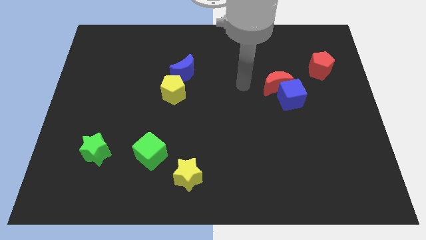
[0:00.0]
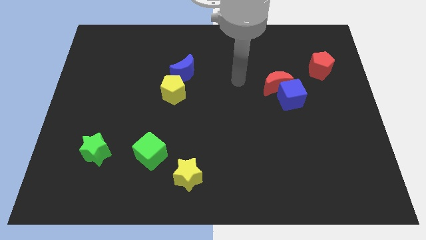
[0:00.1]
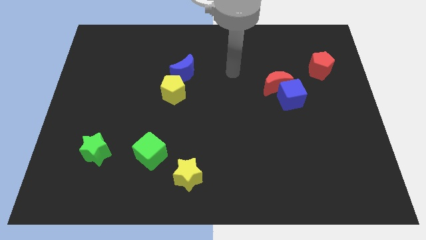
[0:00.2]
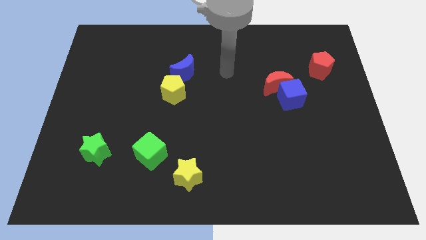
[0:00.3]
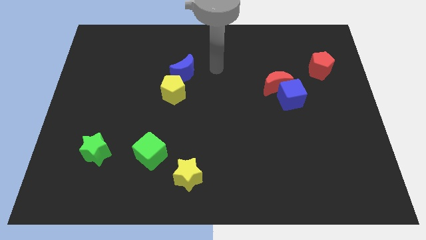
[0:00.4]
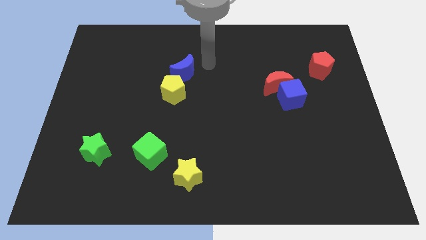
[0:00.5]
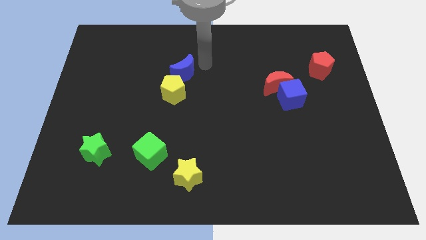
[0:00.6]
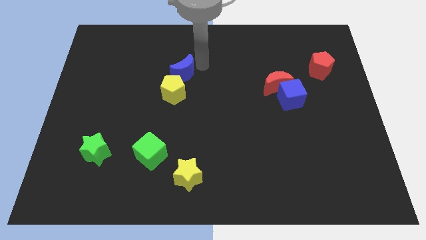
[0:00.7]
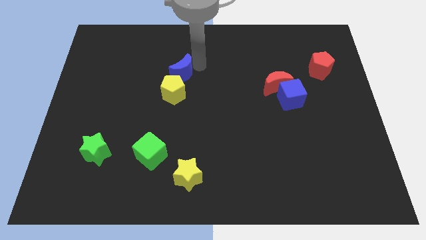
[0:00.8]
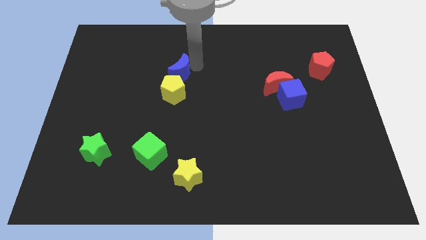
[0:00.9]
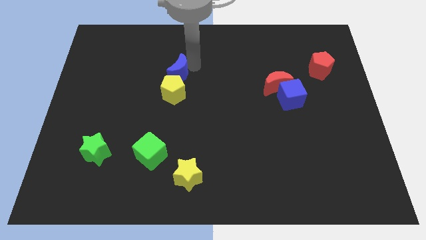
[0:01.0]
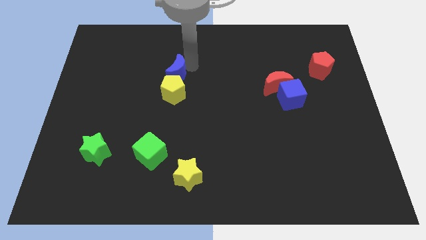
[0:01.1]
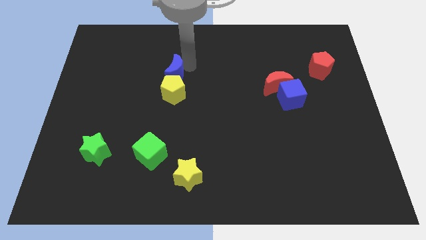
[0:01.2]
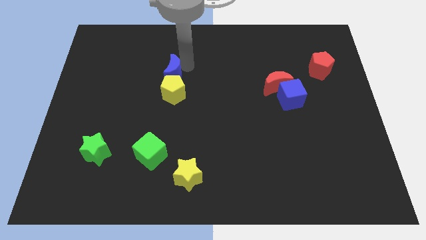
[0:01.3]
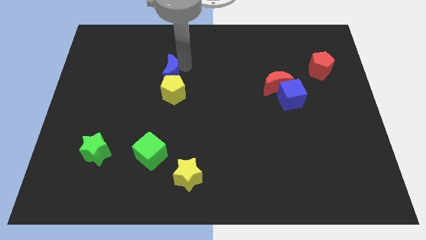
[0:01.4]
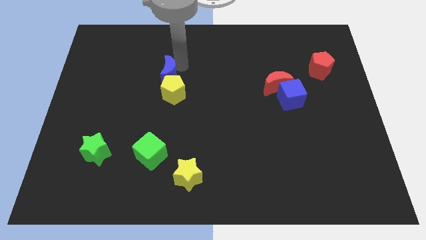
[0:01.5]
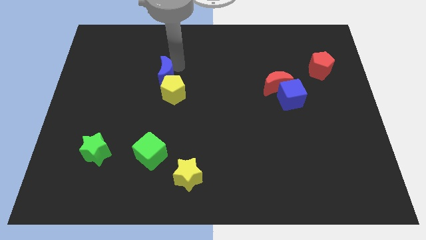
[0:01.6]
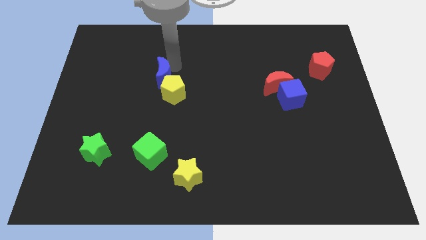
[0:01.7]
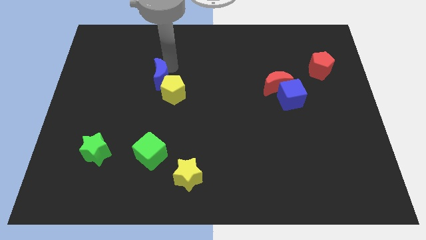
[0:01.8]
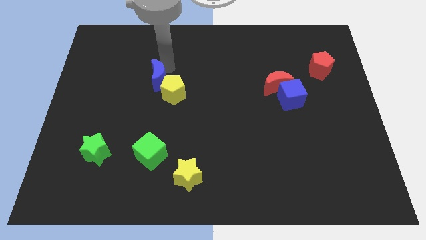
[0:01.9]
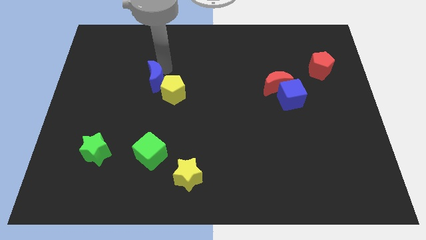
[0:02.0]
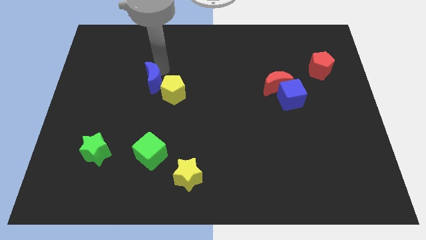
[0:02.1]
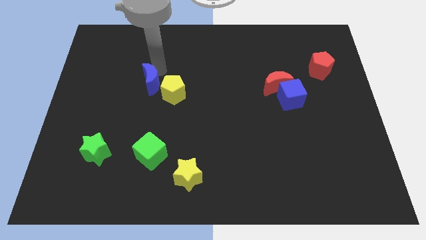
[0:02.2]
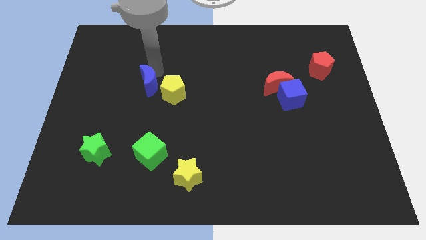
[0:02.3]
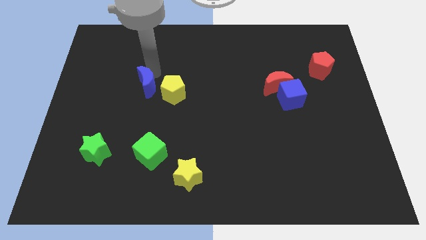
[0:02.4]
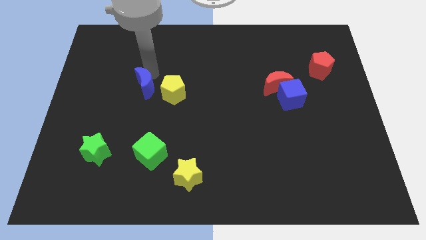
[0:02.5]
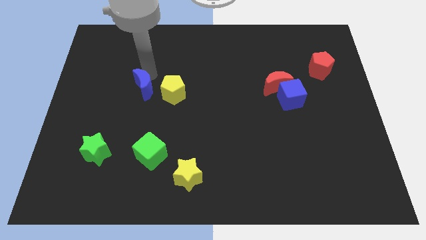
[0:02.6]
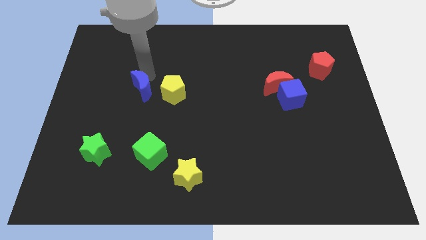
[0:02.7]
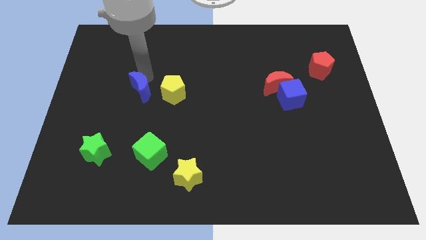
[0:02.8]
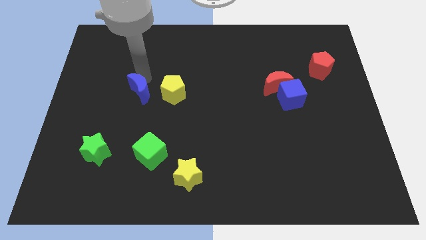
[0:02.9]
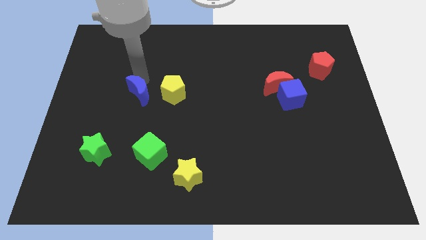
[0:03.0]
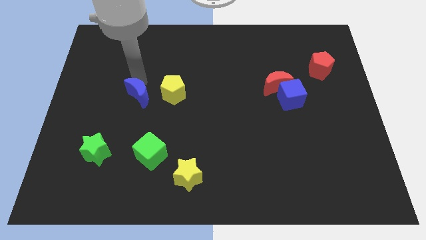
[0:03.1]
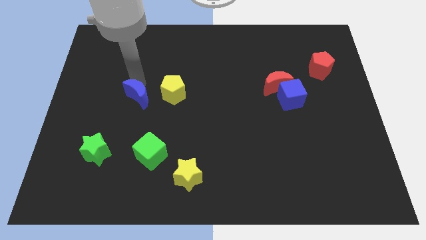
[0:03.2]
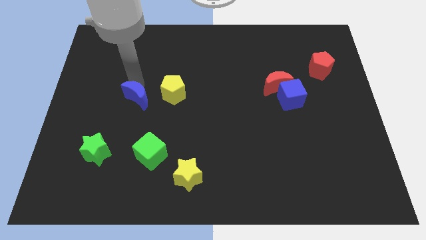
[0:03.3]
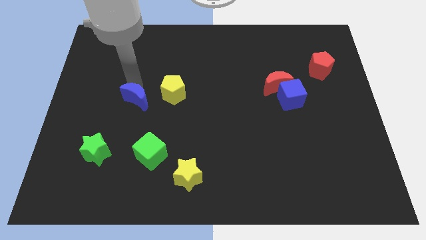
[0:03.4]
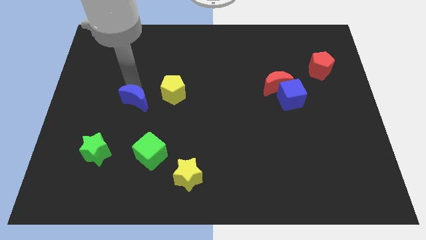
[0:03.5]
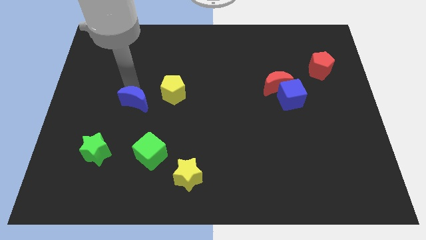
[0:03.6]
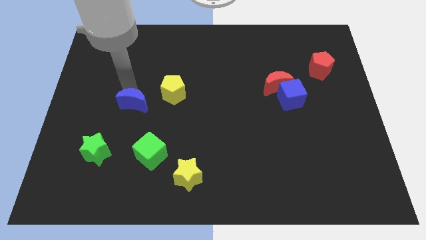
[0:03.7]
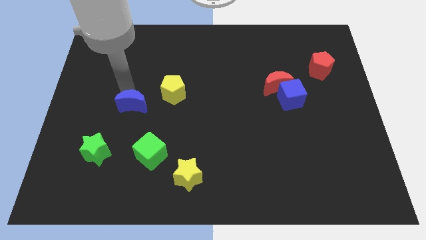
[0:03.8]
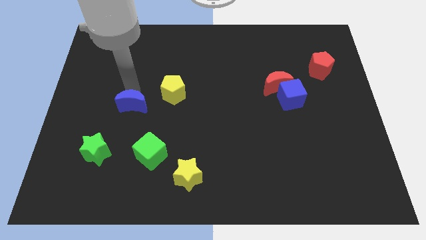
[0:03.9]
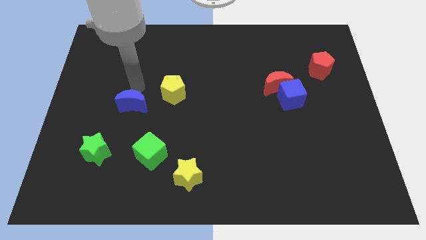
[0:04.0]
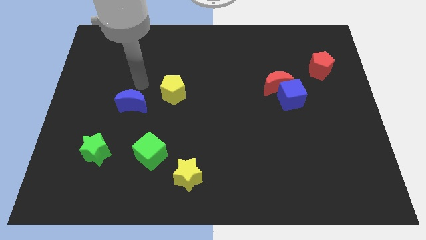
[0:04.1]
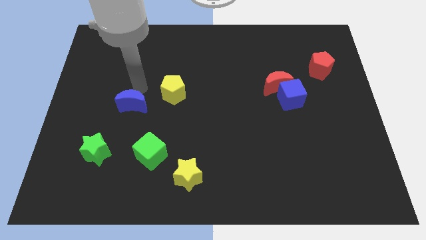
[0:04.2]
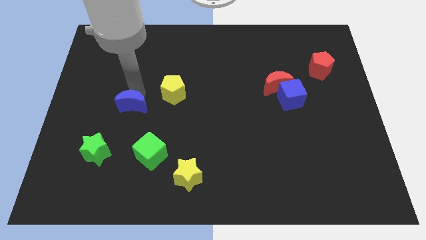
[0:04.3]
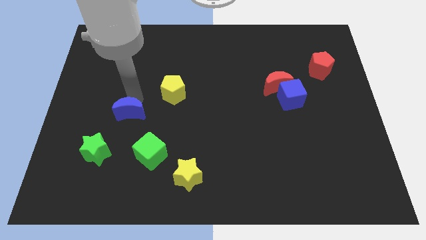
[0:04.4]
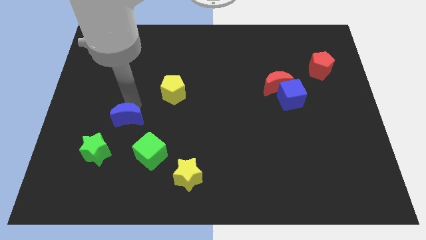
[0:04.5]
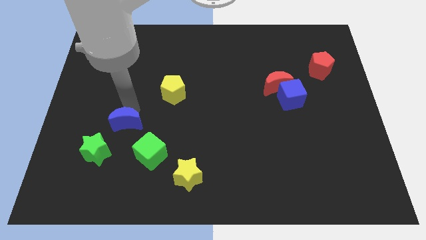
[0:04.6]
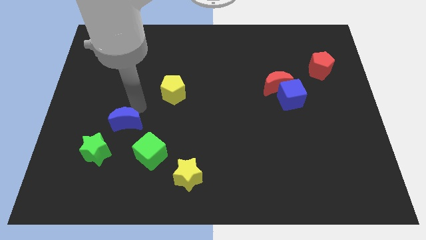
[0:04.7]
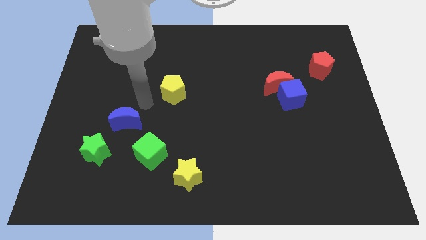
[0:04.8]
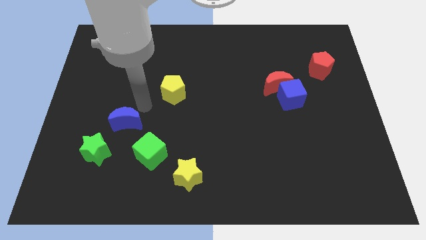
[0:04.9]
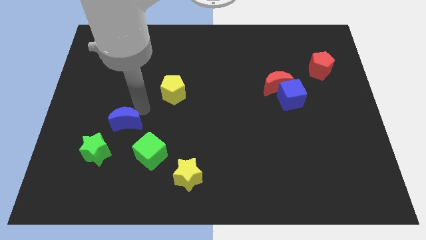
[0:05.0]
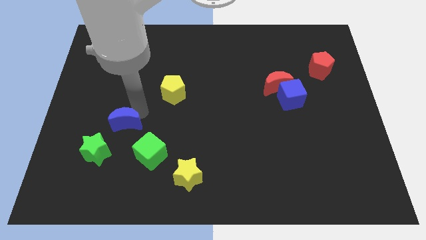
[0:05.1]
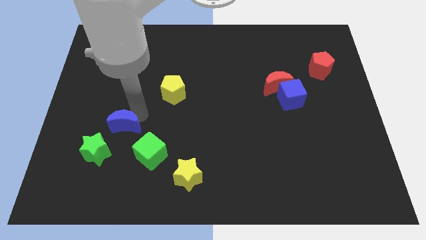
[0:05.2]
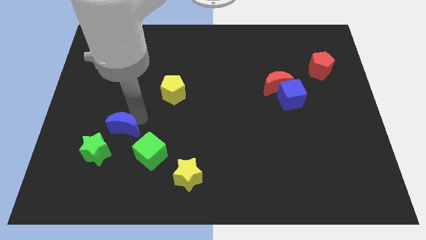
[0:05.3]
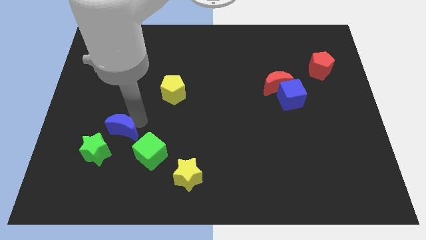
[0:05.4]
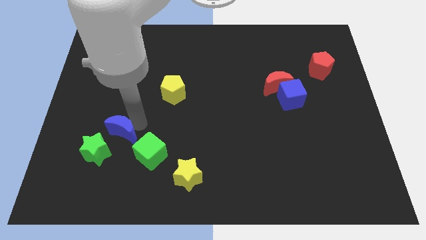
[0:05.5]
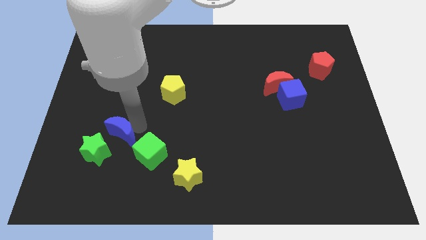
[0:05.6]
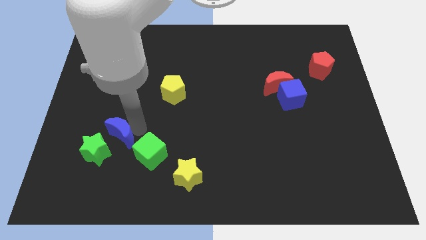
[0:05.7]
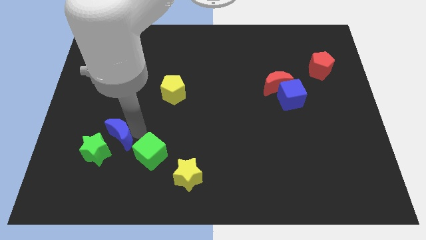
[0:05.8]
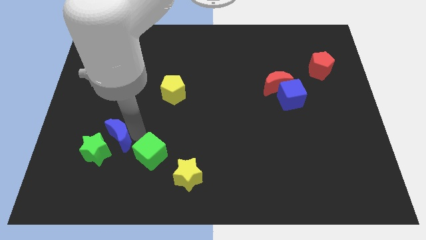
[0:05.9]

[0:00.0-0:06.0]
move the blue moon to the green star

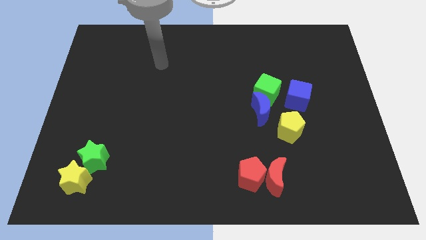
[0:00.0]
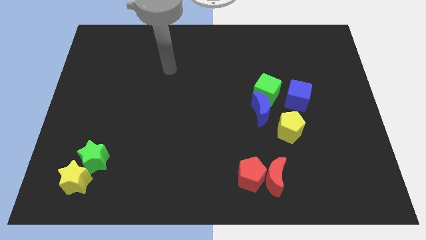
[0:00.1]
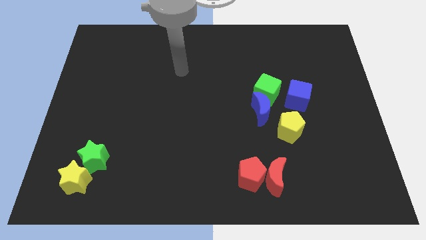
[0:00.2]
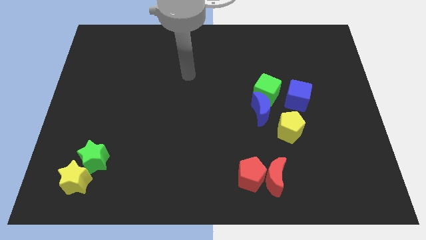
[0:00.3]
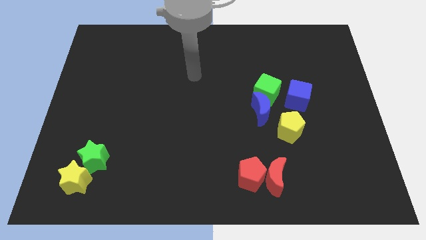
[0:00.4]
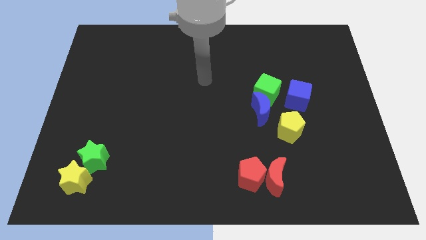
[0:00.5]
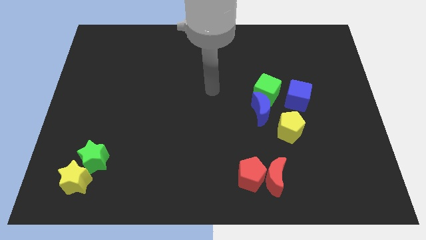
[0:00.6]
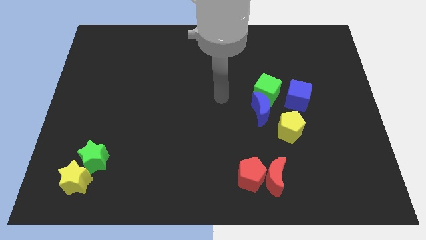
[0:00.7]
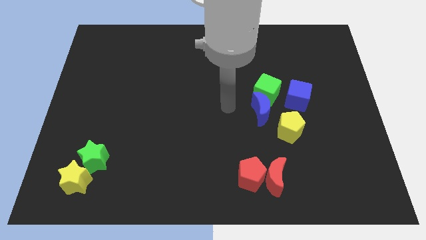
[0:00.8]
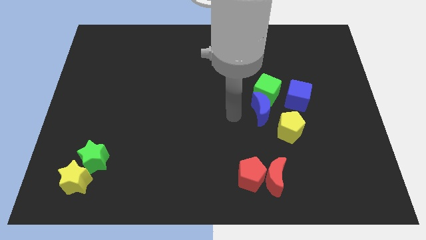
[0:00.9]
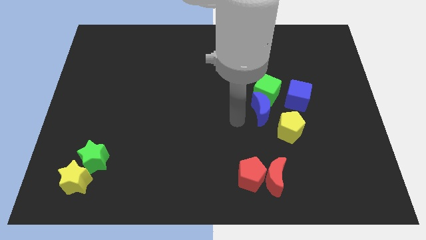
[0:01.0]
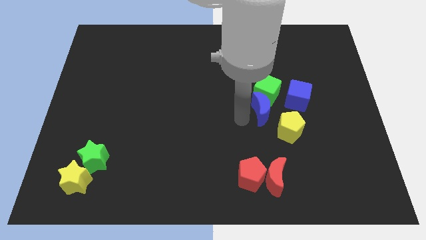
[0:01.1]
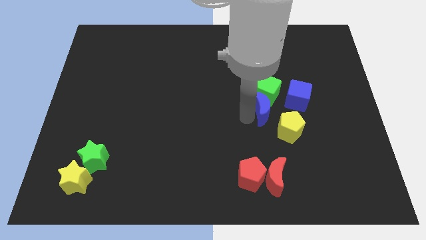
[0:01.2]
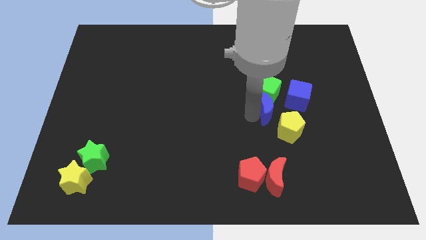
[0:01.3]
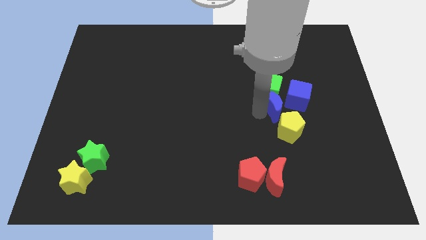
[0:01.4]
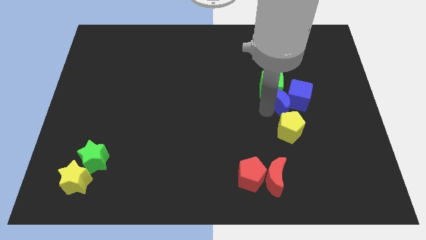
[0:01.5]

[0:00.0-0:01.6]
push the blue moon to the blue cube

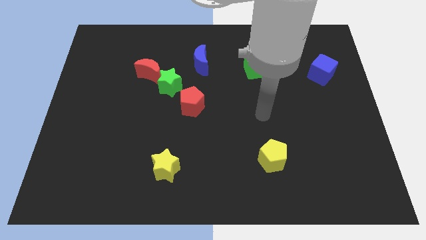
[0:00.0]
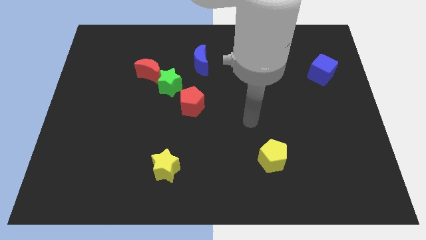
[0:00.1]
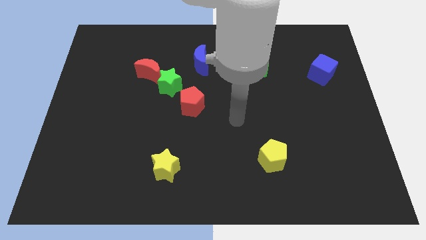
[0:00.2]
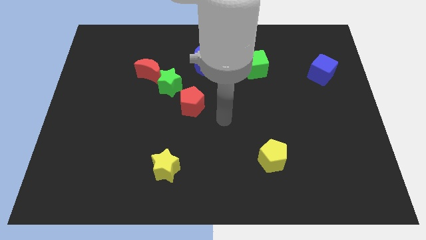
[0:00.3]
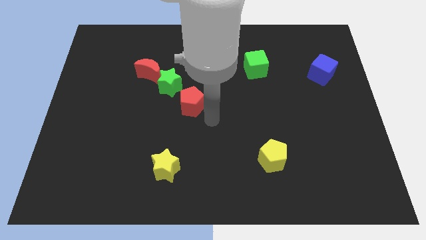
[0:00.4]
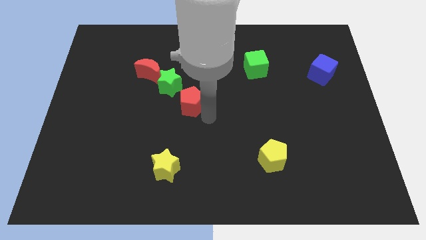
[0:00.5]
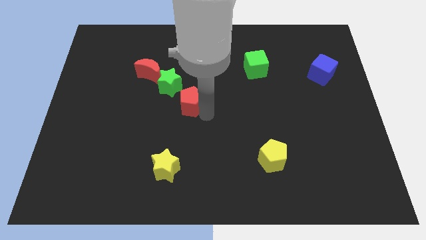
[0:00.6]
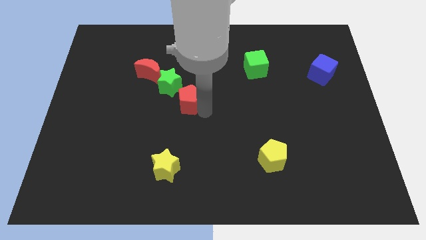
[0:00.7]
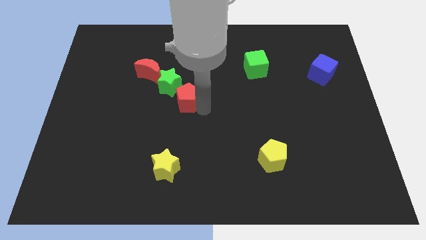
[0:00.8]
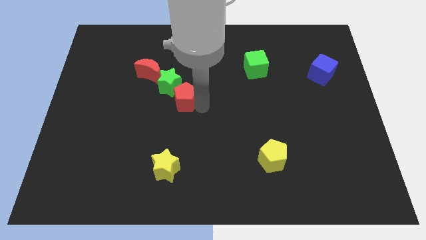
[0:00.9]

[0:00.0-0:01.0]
push the red pentagon to the green star
